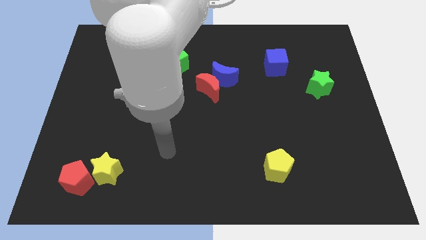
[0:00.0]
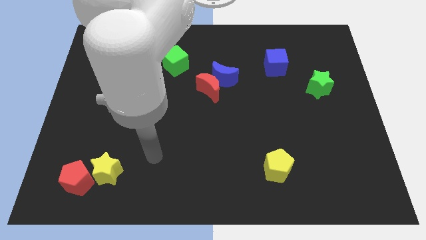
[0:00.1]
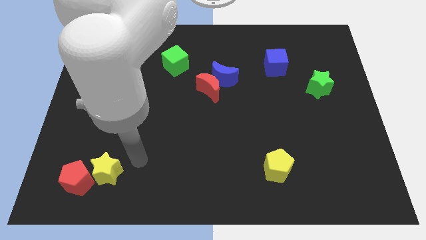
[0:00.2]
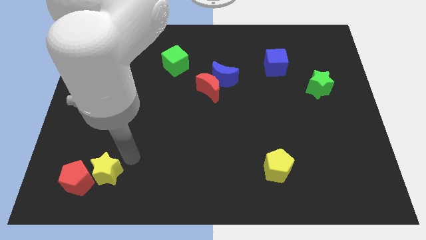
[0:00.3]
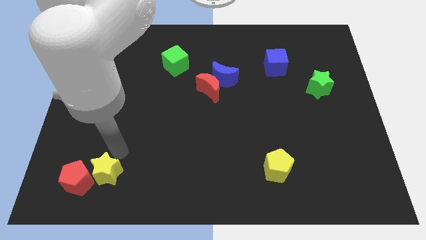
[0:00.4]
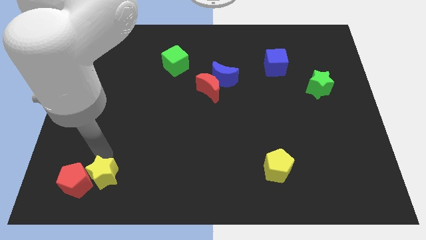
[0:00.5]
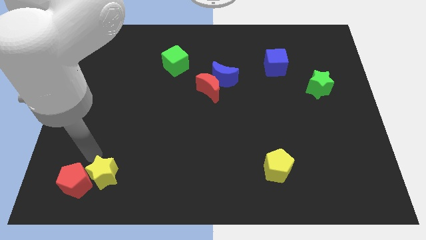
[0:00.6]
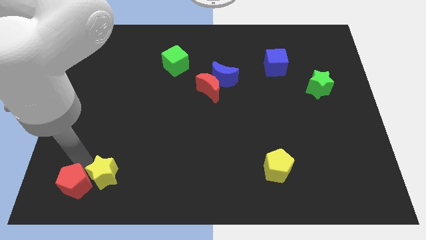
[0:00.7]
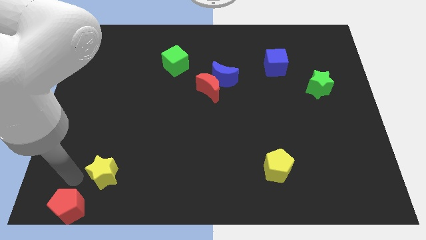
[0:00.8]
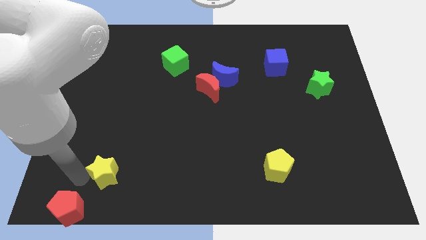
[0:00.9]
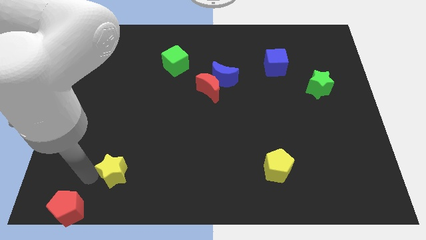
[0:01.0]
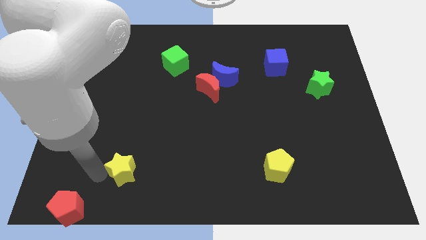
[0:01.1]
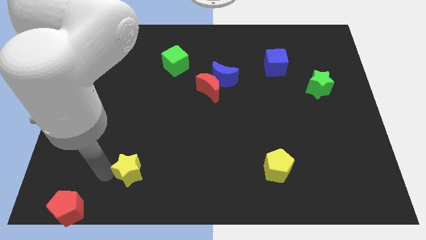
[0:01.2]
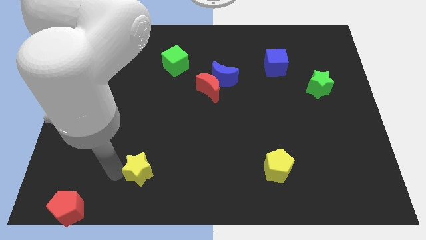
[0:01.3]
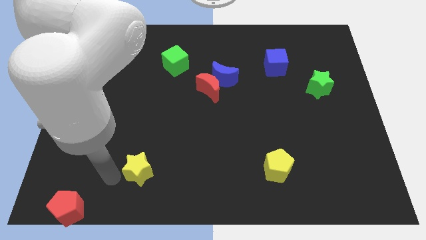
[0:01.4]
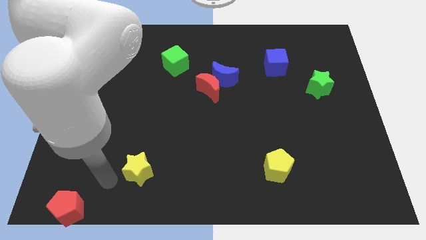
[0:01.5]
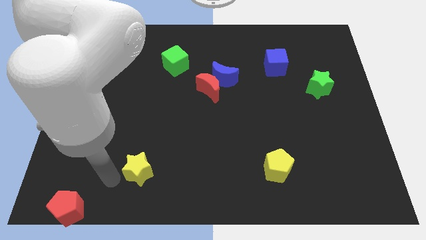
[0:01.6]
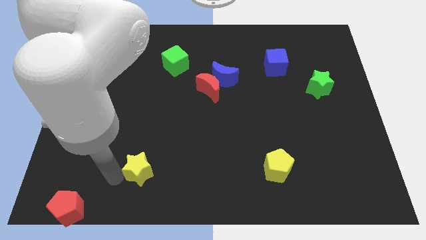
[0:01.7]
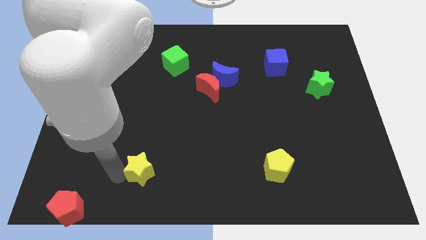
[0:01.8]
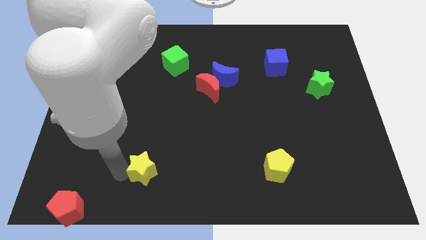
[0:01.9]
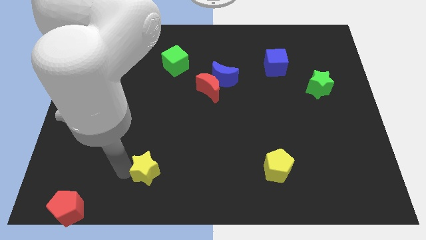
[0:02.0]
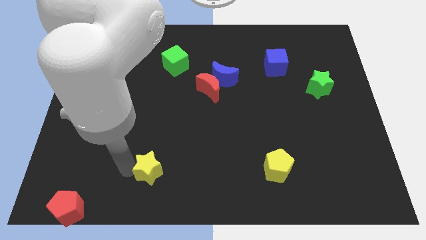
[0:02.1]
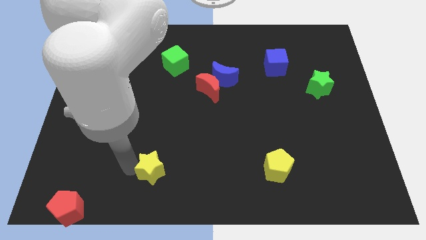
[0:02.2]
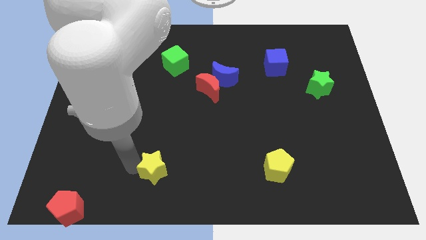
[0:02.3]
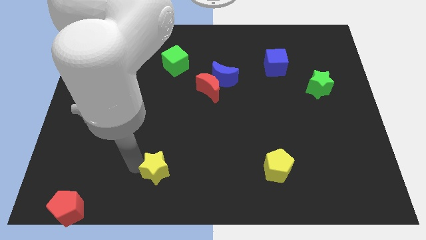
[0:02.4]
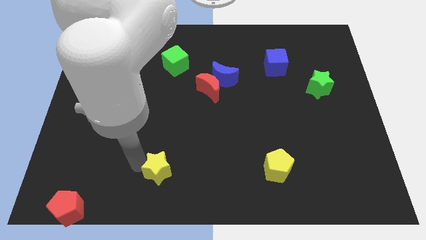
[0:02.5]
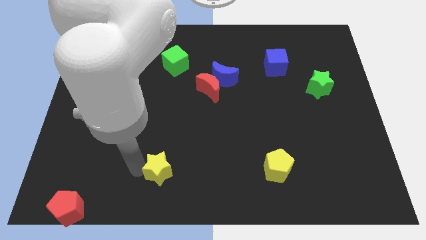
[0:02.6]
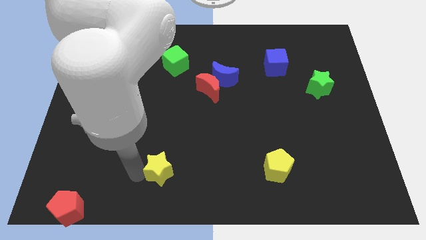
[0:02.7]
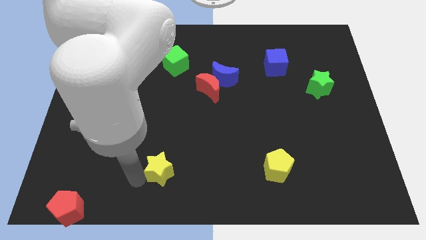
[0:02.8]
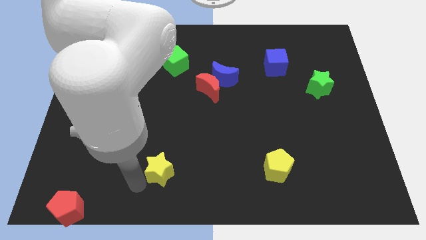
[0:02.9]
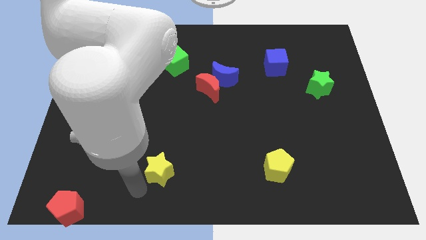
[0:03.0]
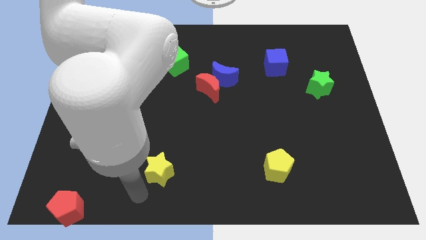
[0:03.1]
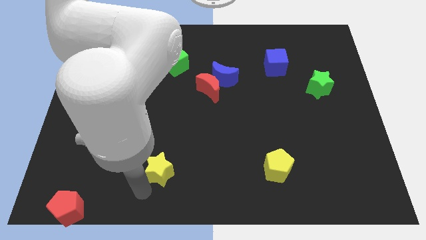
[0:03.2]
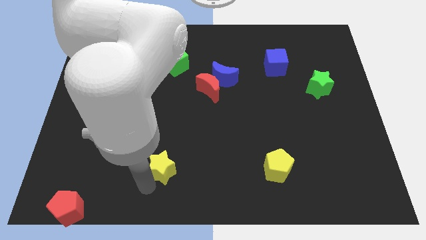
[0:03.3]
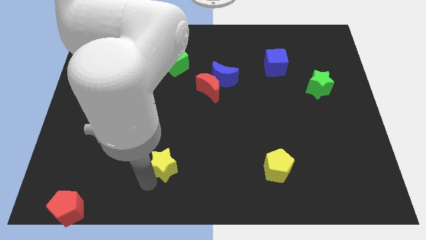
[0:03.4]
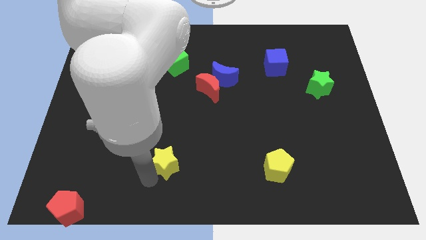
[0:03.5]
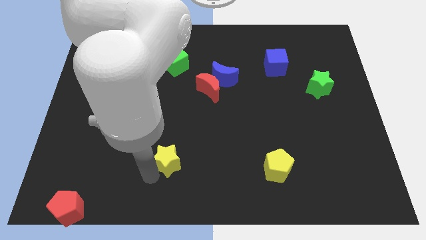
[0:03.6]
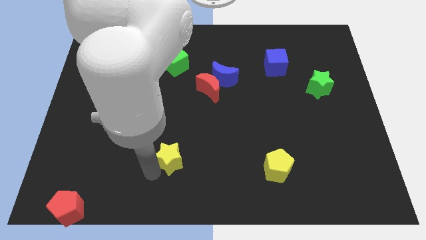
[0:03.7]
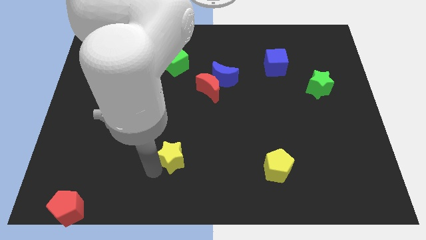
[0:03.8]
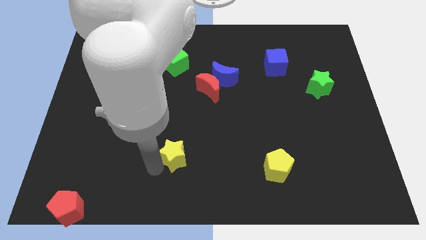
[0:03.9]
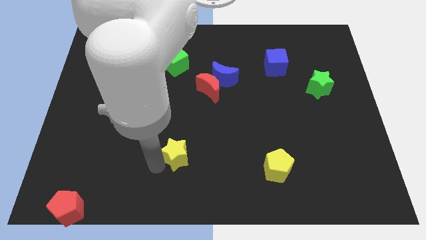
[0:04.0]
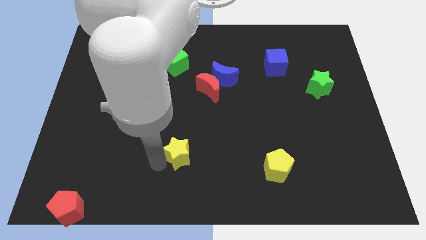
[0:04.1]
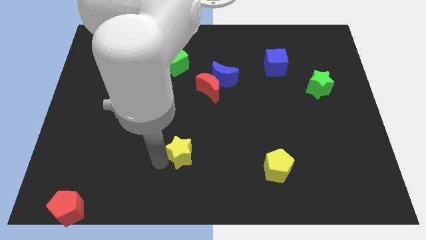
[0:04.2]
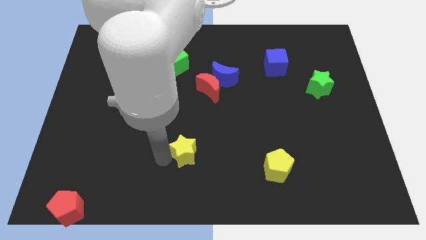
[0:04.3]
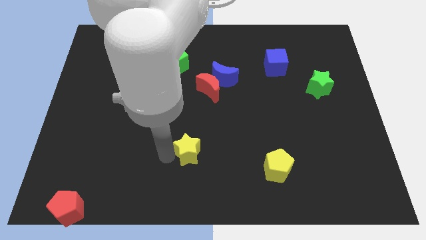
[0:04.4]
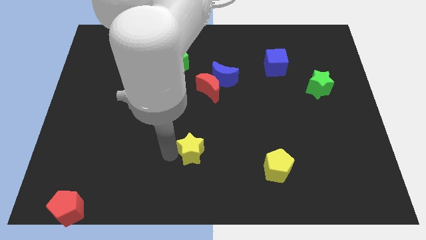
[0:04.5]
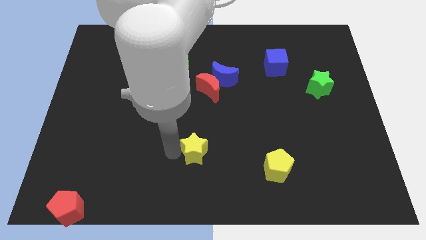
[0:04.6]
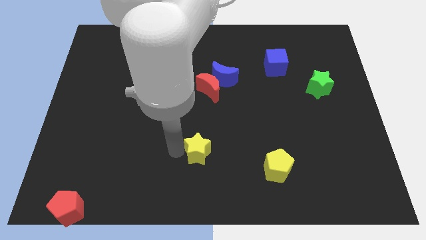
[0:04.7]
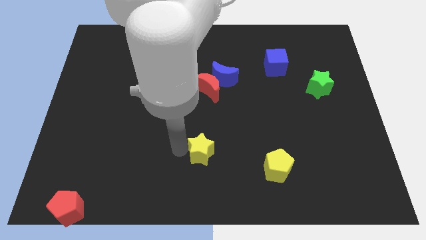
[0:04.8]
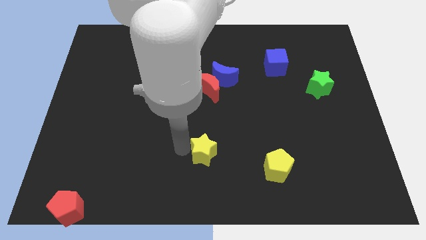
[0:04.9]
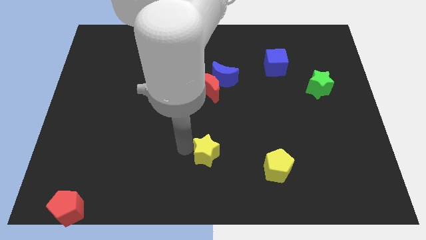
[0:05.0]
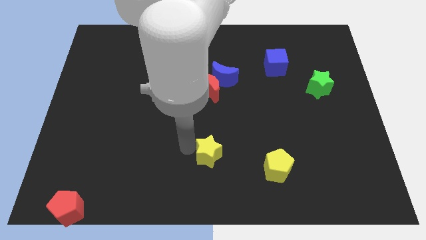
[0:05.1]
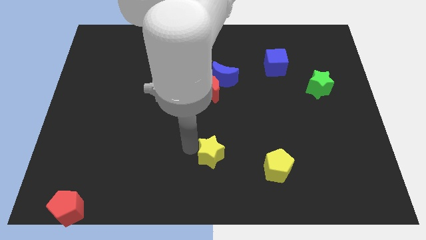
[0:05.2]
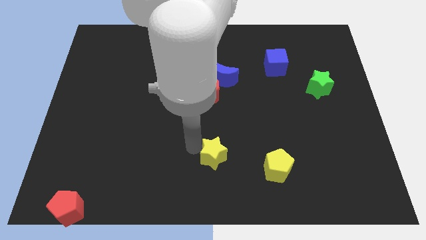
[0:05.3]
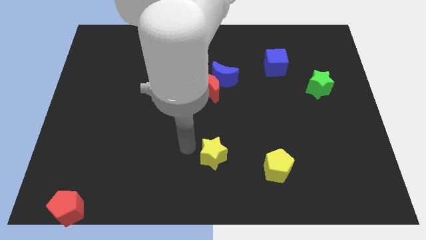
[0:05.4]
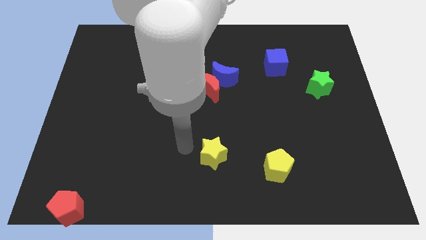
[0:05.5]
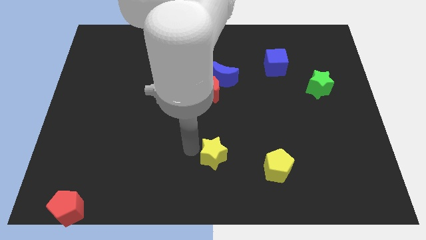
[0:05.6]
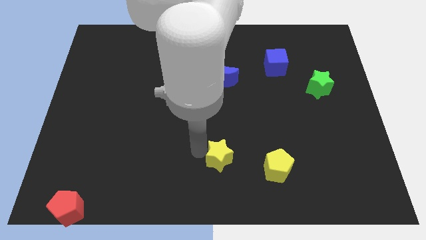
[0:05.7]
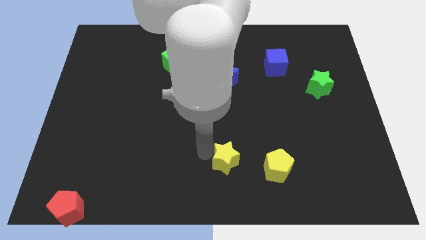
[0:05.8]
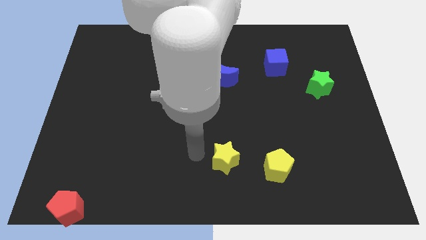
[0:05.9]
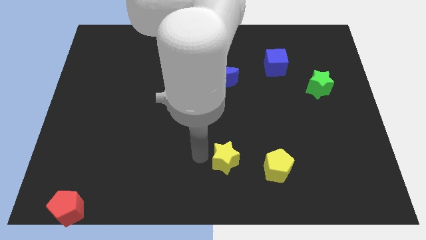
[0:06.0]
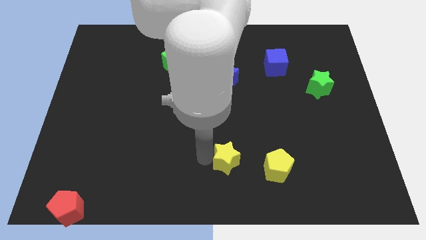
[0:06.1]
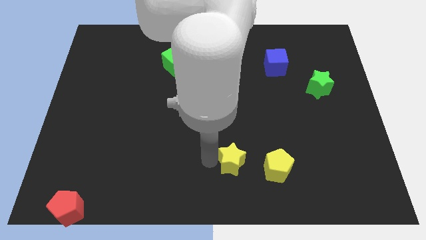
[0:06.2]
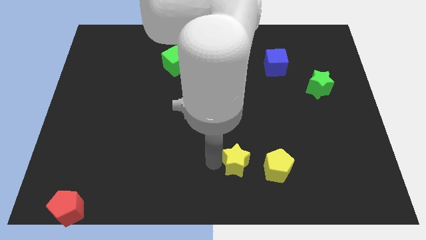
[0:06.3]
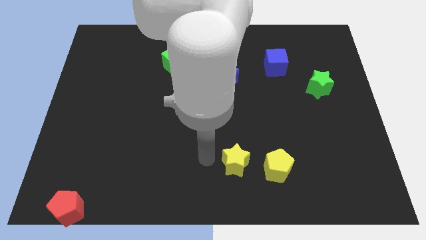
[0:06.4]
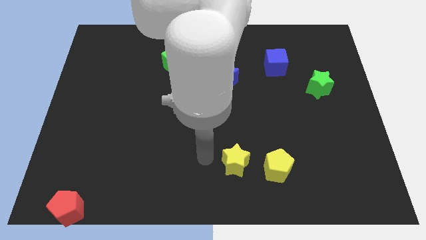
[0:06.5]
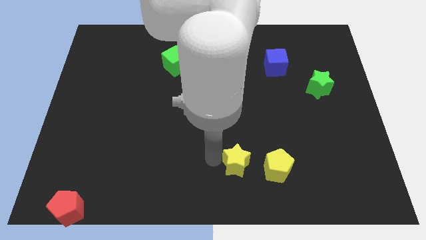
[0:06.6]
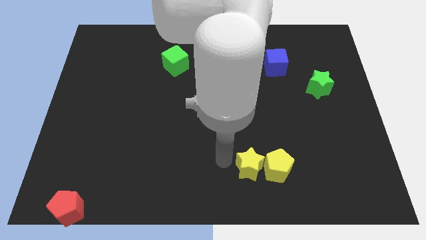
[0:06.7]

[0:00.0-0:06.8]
put the yellow star close to the yellow pentagon
